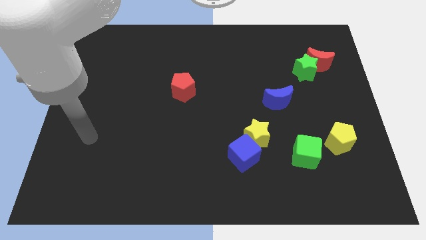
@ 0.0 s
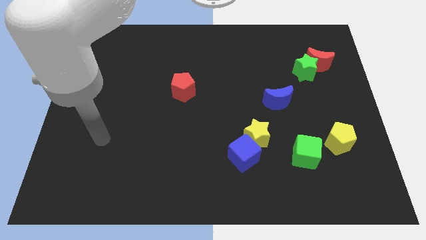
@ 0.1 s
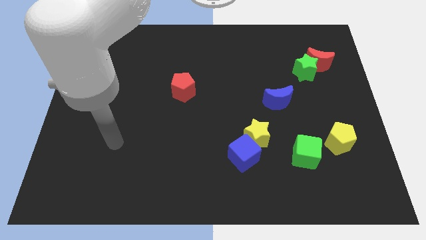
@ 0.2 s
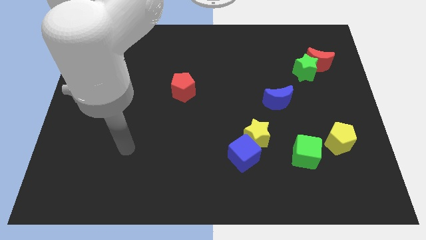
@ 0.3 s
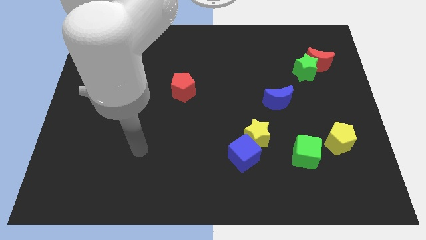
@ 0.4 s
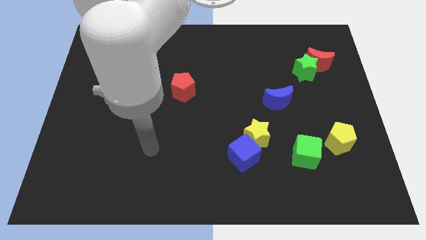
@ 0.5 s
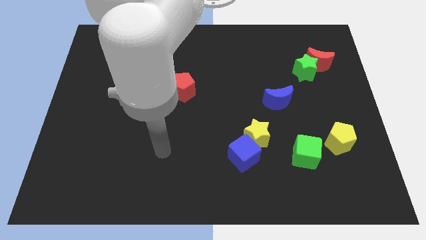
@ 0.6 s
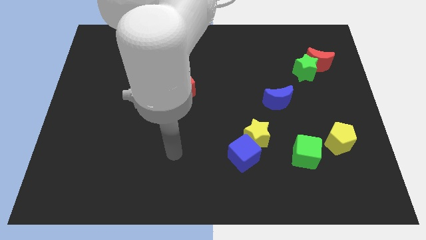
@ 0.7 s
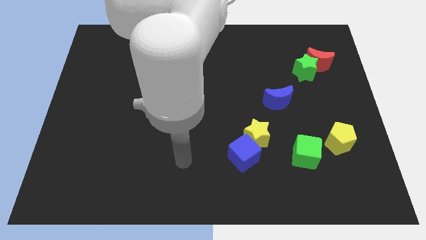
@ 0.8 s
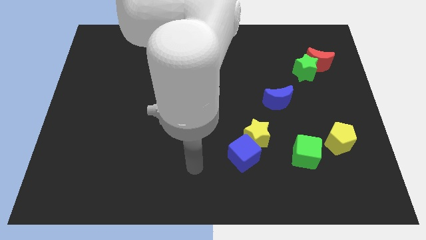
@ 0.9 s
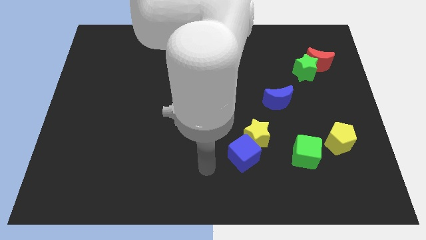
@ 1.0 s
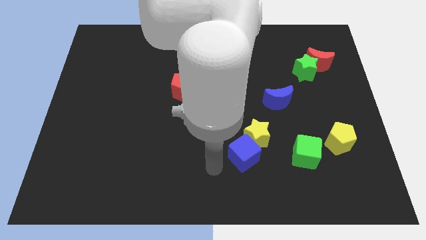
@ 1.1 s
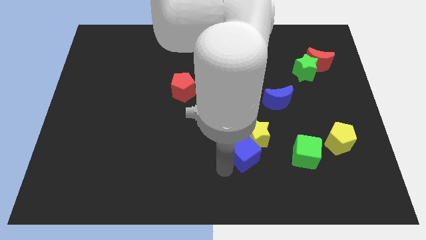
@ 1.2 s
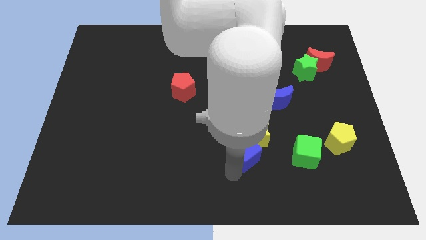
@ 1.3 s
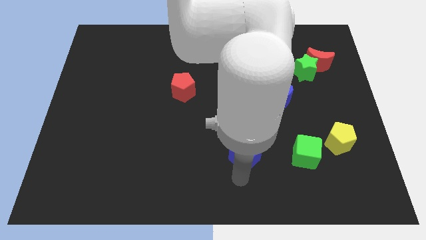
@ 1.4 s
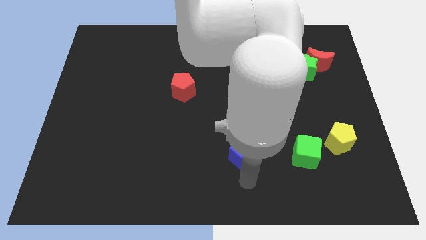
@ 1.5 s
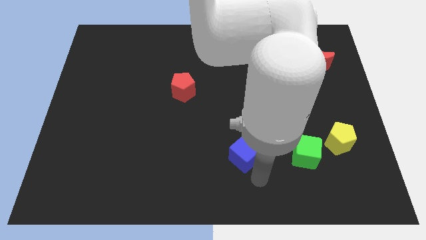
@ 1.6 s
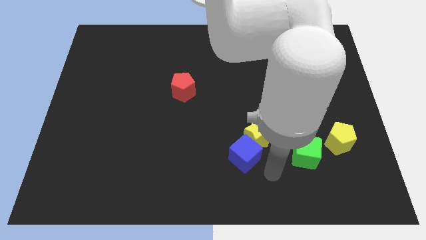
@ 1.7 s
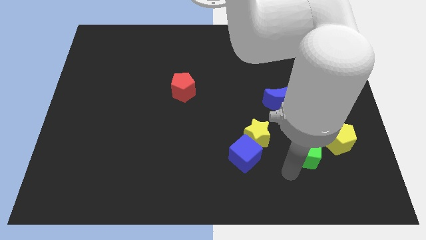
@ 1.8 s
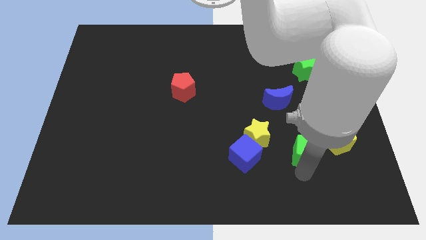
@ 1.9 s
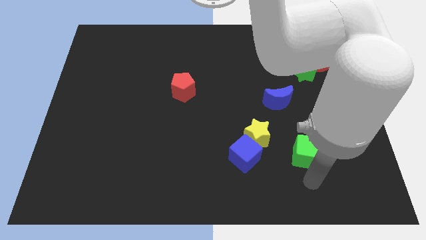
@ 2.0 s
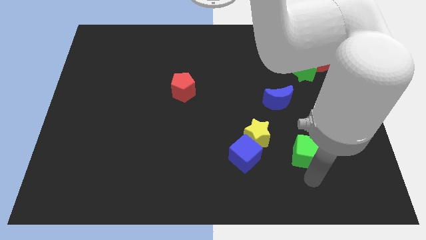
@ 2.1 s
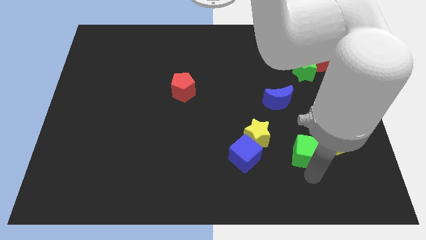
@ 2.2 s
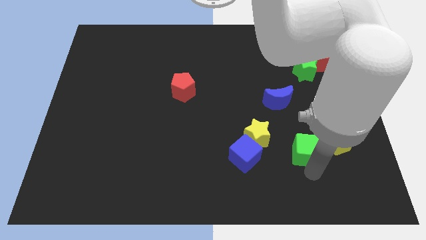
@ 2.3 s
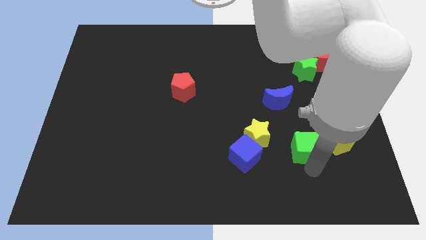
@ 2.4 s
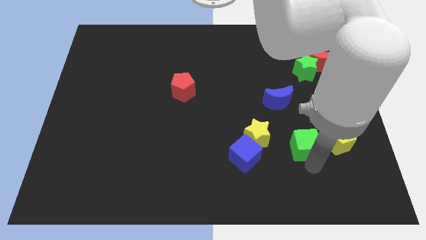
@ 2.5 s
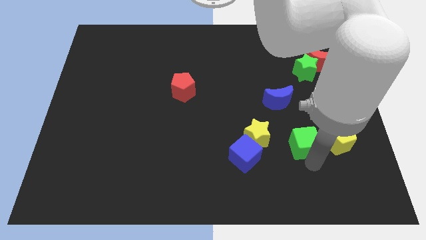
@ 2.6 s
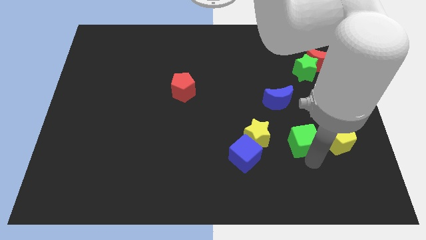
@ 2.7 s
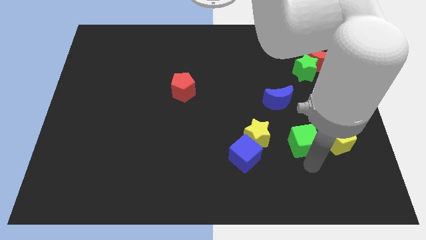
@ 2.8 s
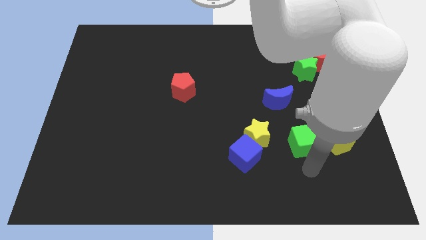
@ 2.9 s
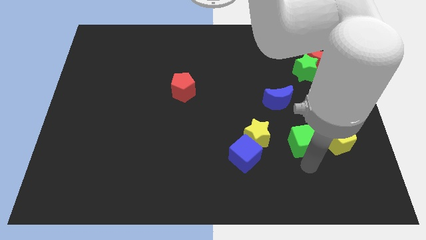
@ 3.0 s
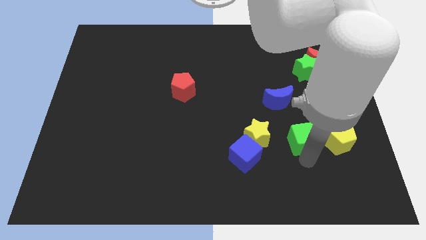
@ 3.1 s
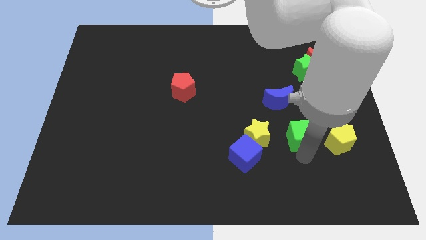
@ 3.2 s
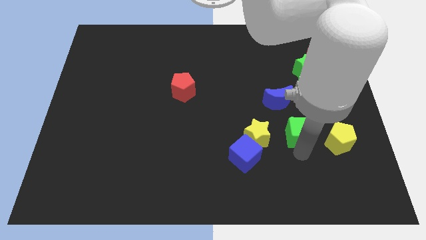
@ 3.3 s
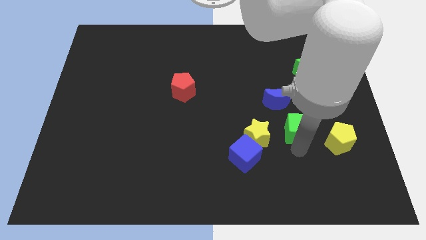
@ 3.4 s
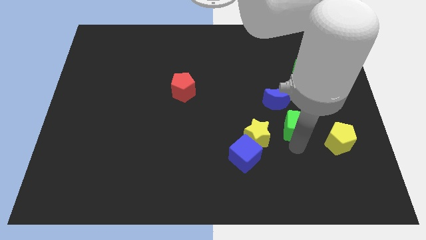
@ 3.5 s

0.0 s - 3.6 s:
slide the green cube somewhat upwards

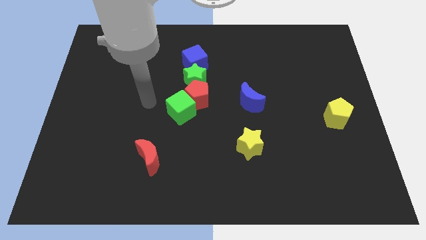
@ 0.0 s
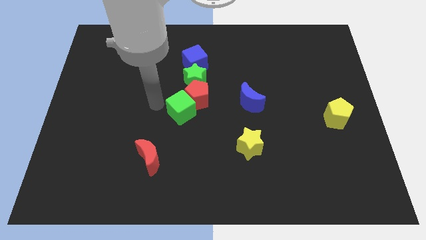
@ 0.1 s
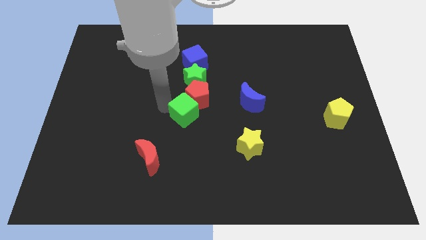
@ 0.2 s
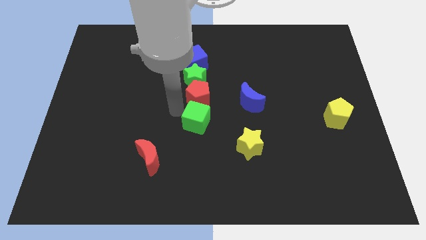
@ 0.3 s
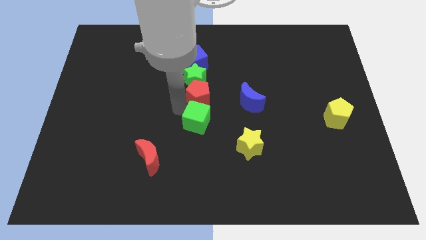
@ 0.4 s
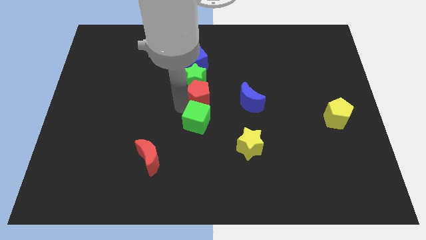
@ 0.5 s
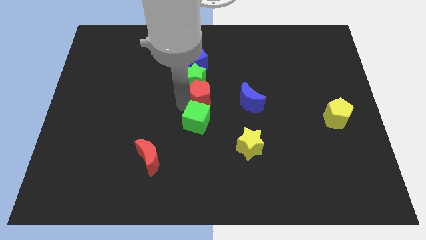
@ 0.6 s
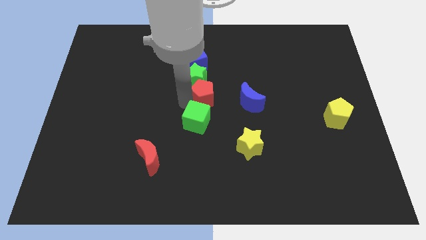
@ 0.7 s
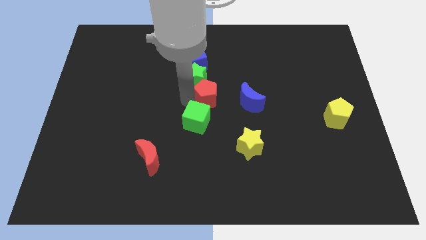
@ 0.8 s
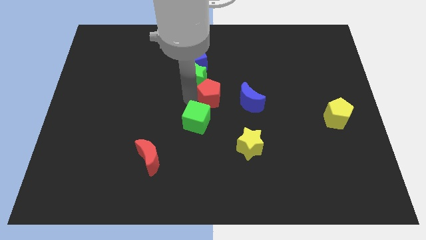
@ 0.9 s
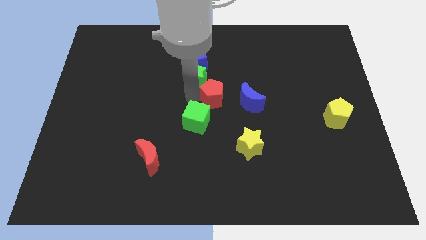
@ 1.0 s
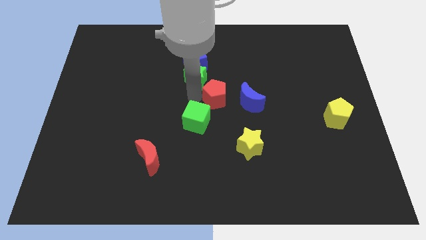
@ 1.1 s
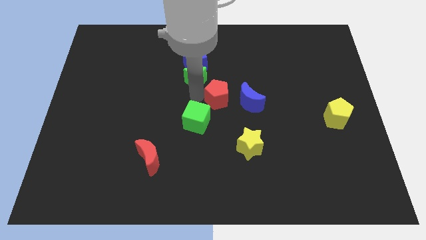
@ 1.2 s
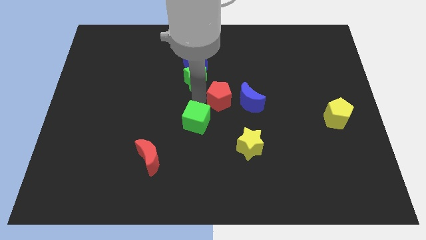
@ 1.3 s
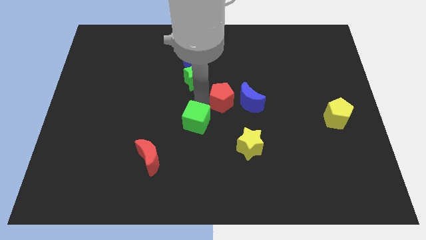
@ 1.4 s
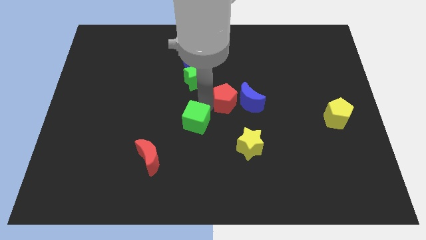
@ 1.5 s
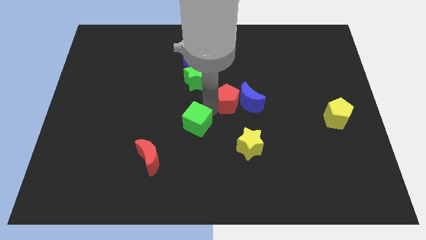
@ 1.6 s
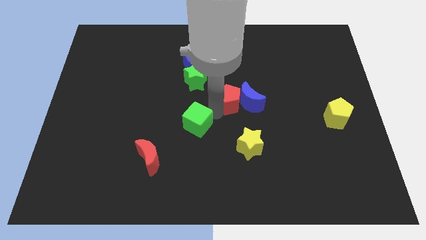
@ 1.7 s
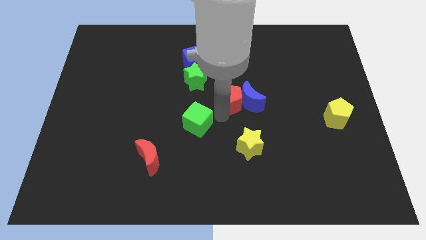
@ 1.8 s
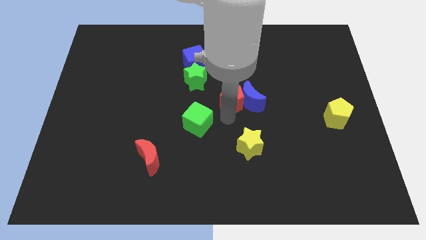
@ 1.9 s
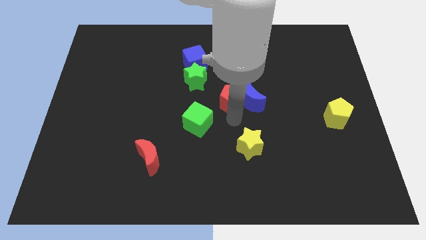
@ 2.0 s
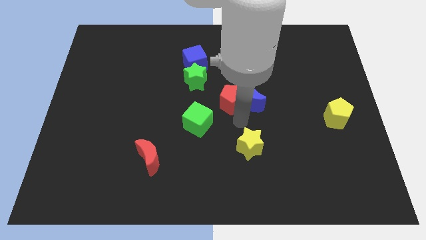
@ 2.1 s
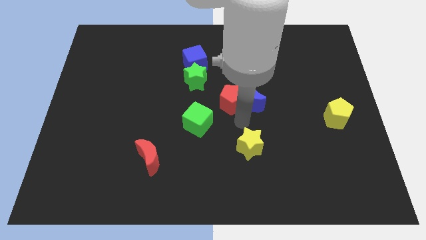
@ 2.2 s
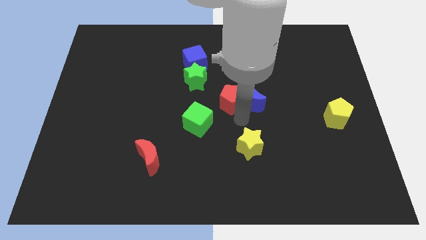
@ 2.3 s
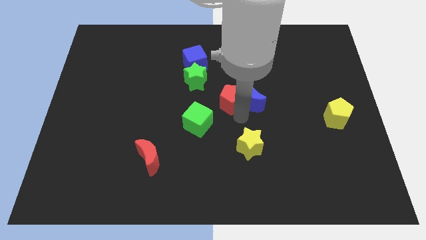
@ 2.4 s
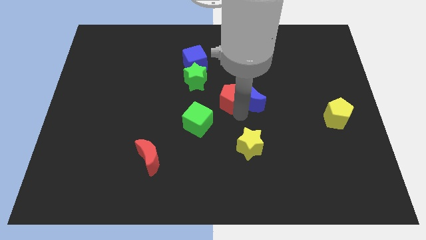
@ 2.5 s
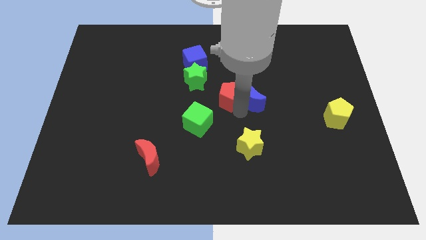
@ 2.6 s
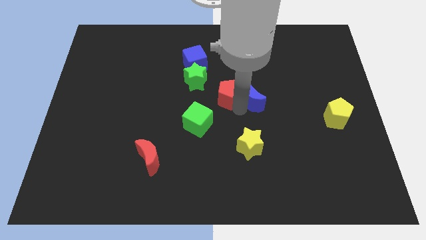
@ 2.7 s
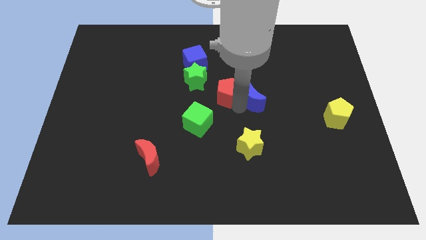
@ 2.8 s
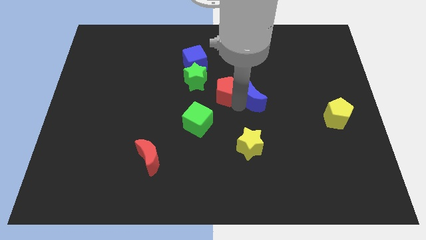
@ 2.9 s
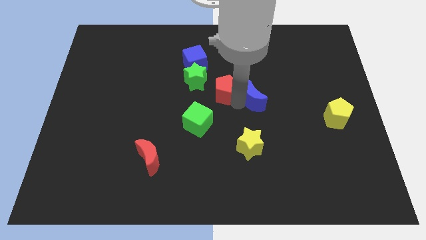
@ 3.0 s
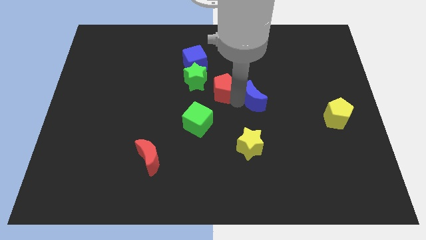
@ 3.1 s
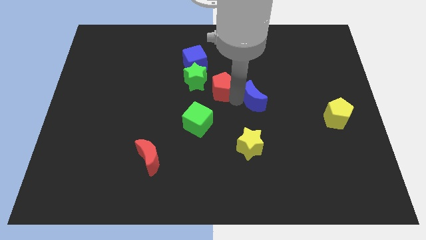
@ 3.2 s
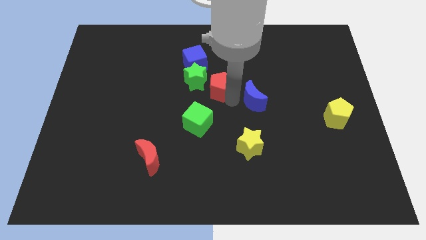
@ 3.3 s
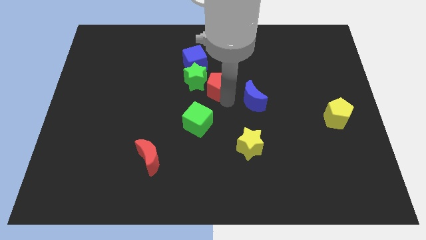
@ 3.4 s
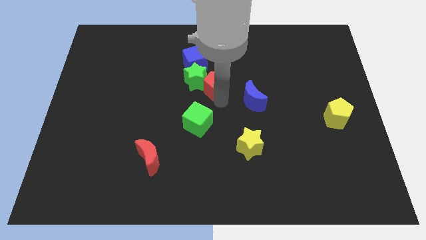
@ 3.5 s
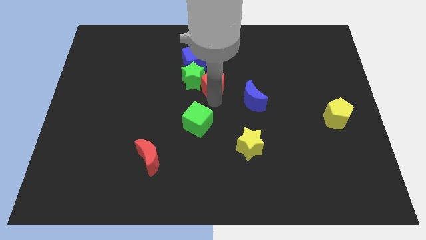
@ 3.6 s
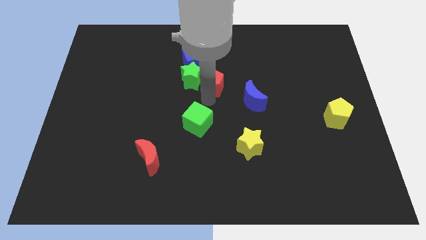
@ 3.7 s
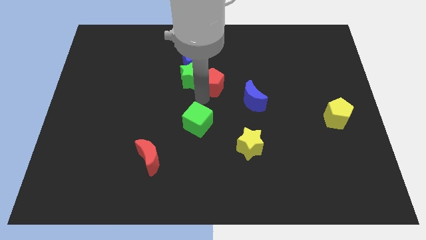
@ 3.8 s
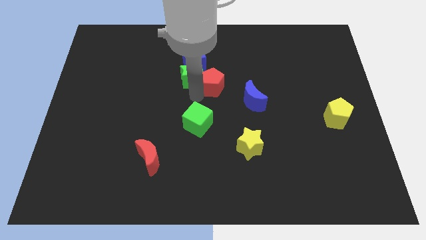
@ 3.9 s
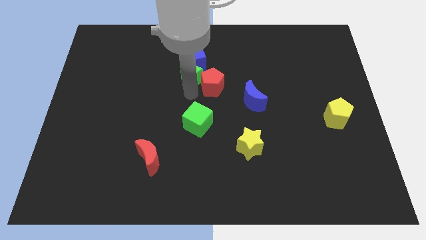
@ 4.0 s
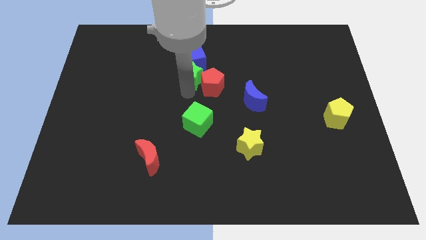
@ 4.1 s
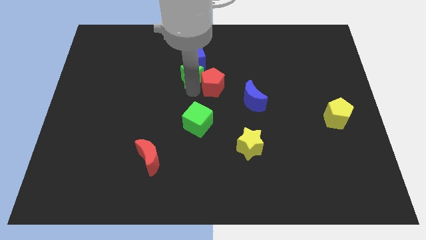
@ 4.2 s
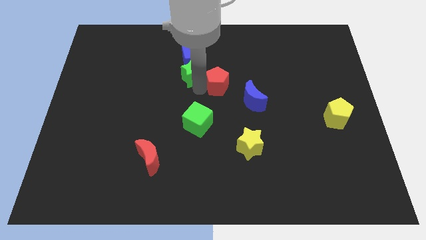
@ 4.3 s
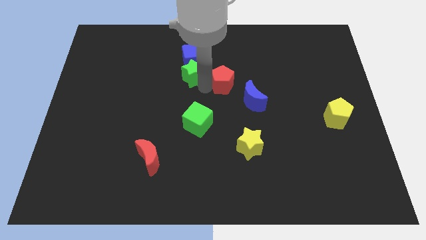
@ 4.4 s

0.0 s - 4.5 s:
slightly slide the red pentagon upwards and then to the right
